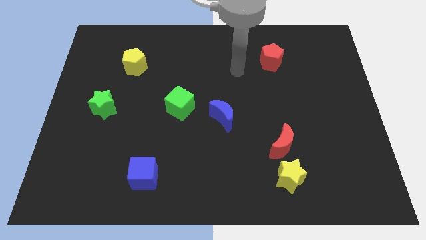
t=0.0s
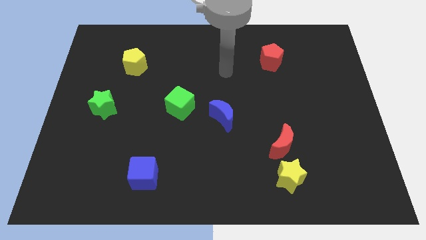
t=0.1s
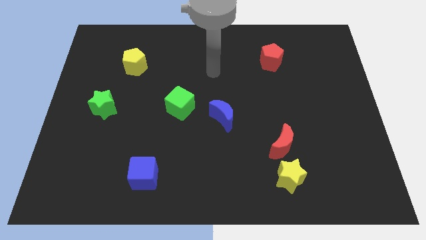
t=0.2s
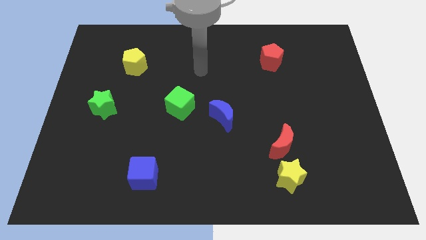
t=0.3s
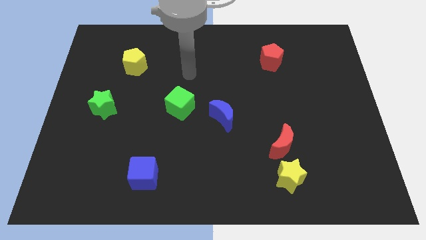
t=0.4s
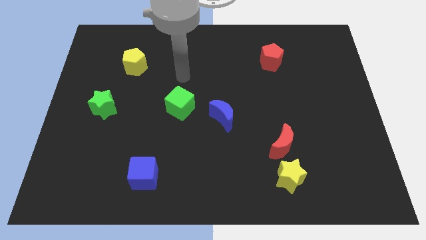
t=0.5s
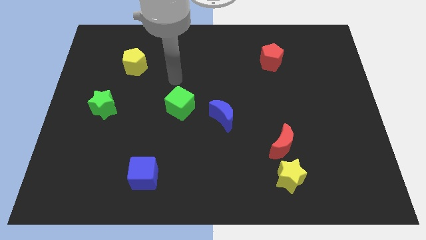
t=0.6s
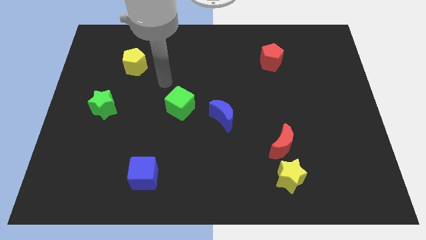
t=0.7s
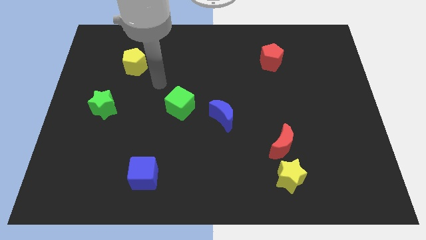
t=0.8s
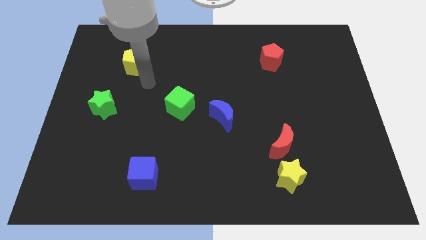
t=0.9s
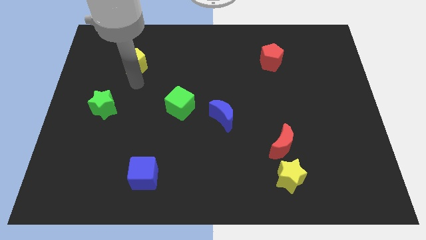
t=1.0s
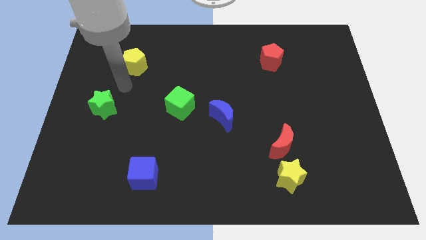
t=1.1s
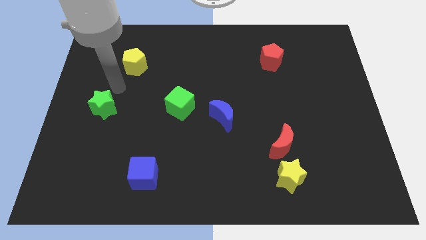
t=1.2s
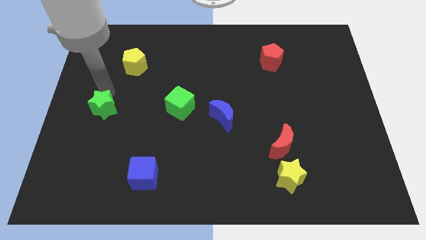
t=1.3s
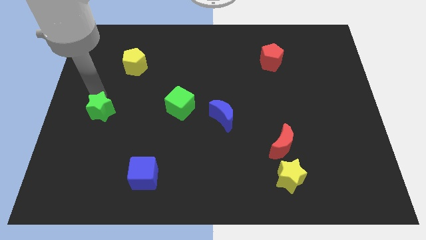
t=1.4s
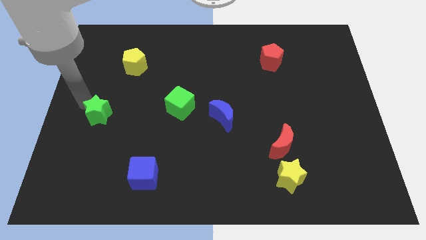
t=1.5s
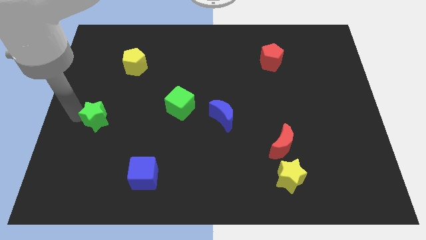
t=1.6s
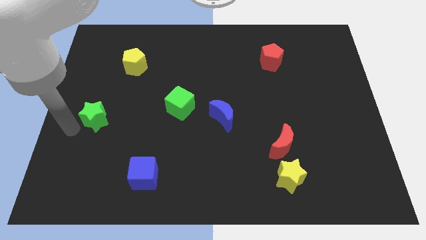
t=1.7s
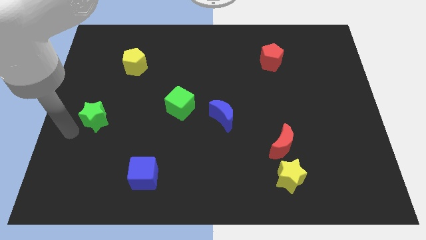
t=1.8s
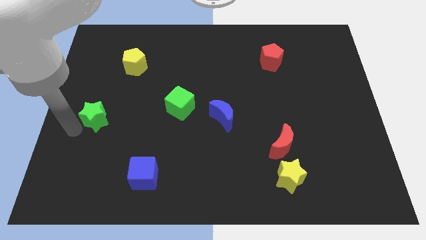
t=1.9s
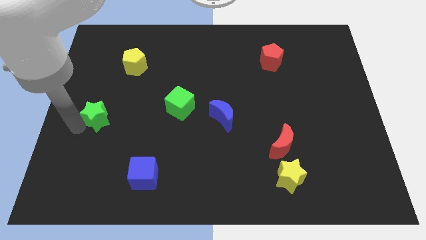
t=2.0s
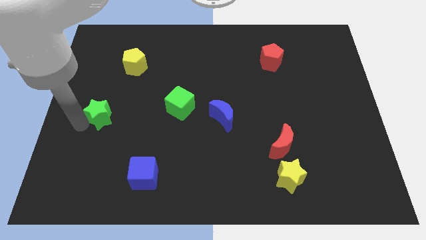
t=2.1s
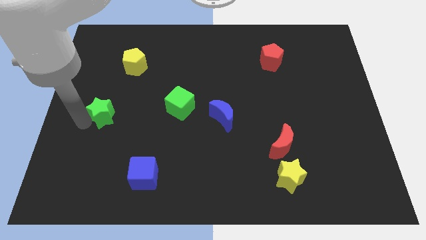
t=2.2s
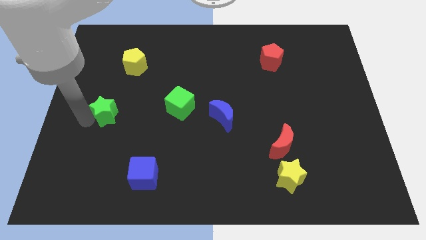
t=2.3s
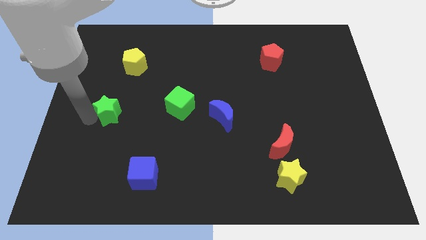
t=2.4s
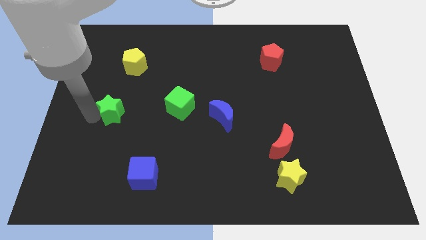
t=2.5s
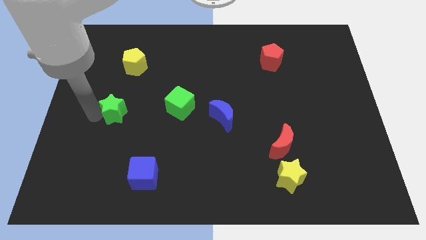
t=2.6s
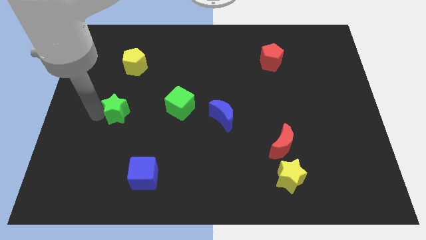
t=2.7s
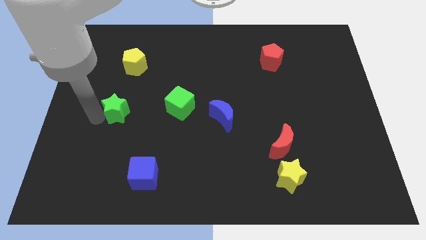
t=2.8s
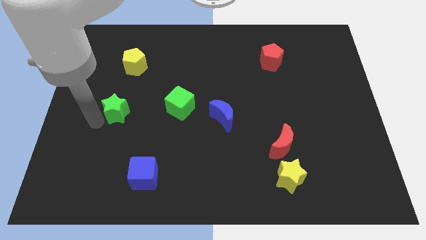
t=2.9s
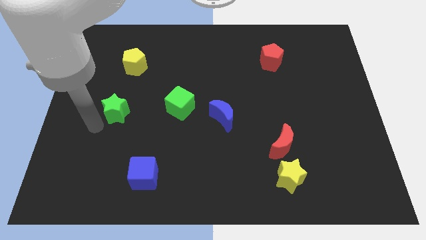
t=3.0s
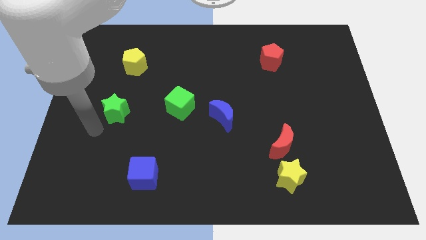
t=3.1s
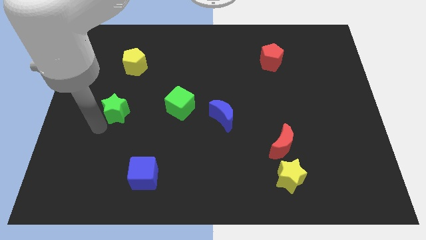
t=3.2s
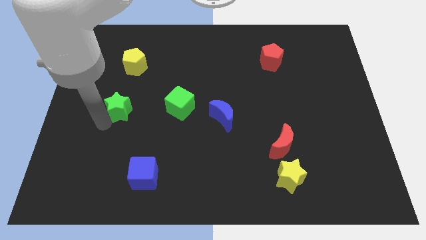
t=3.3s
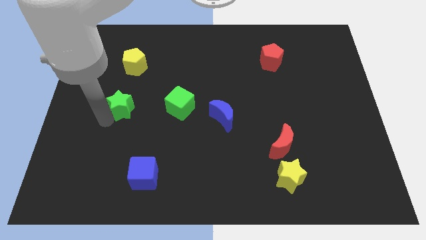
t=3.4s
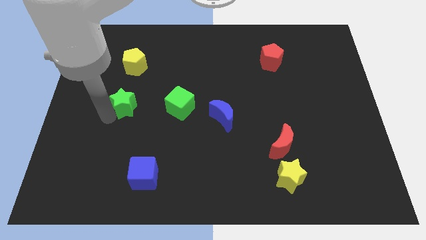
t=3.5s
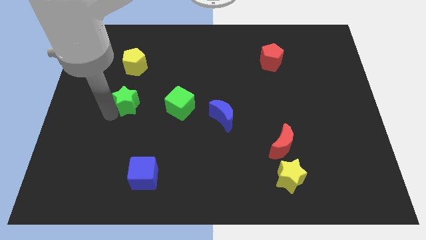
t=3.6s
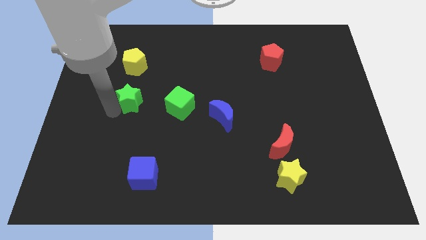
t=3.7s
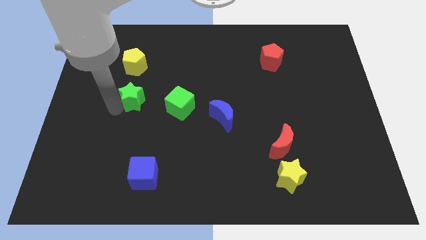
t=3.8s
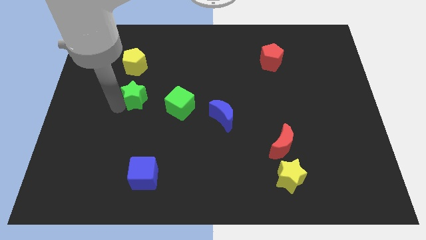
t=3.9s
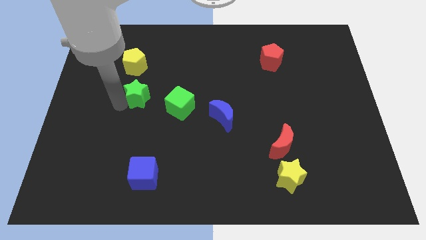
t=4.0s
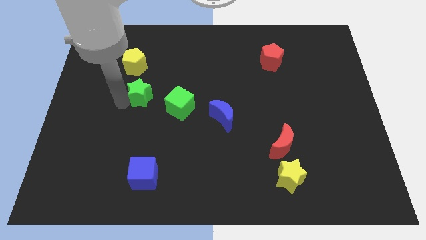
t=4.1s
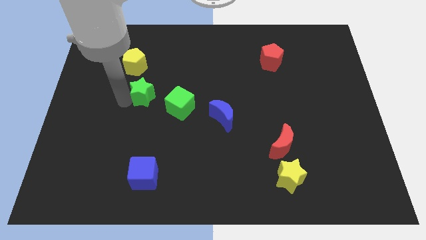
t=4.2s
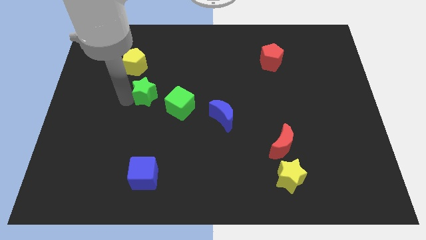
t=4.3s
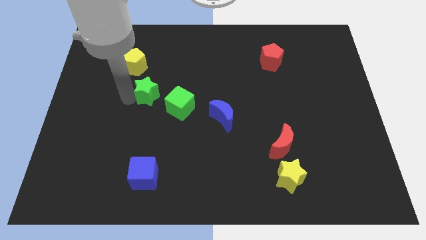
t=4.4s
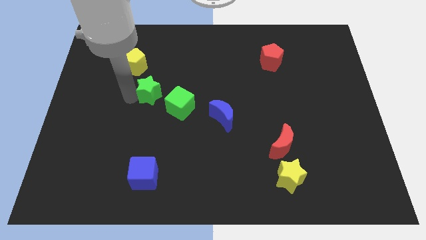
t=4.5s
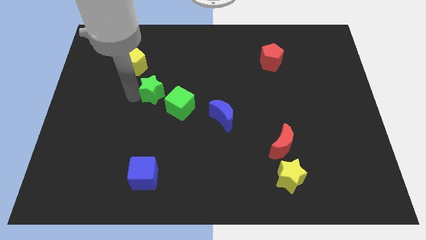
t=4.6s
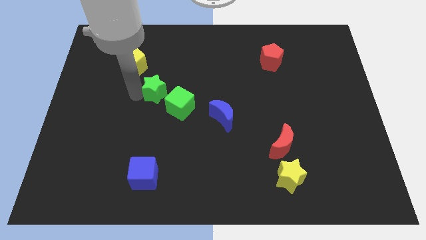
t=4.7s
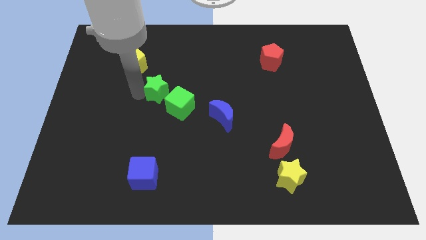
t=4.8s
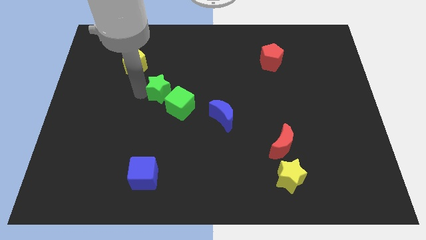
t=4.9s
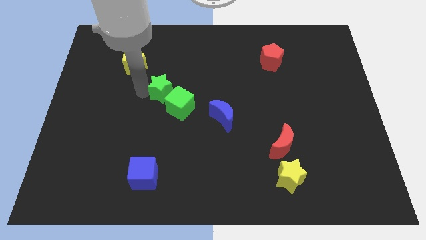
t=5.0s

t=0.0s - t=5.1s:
slide the green star to the middle

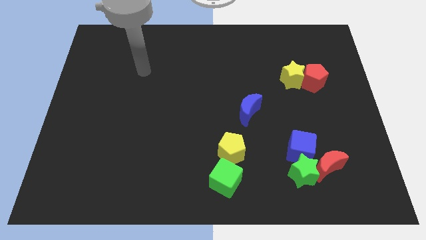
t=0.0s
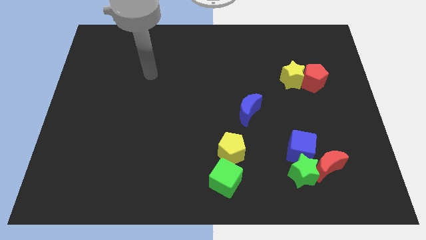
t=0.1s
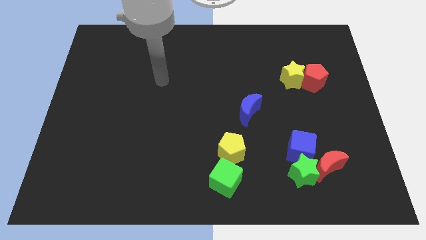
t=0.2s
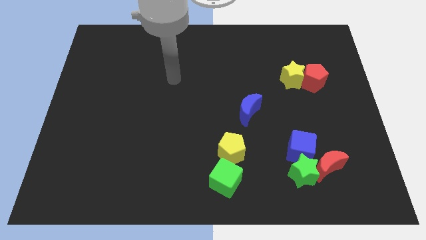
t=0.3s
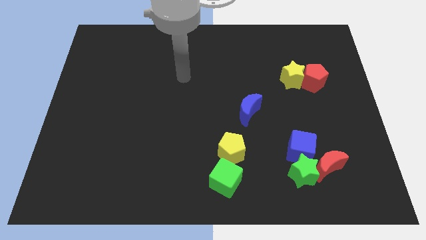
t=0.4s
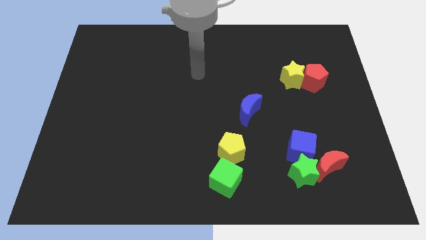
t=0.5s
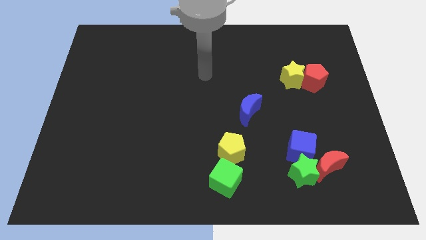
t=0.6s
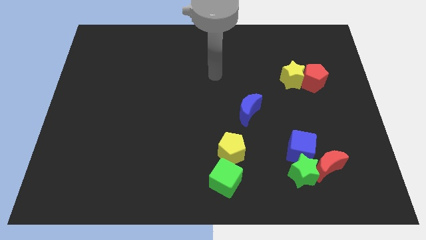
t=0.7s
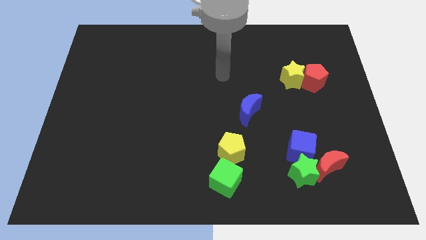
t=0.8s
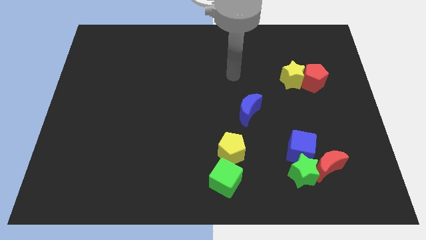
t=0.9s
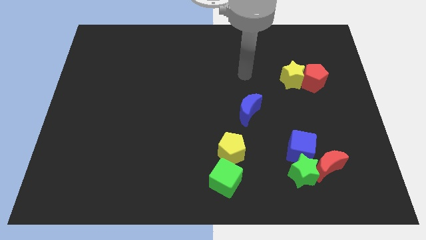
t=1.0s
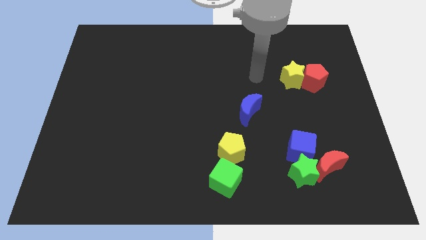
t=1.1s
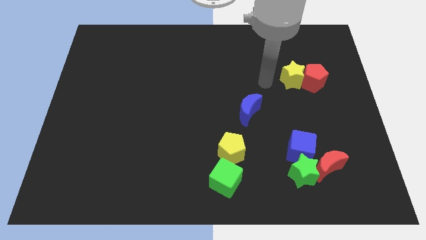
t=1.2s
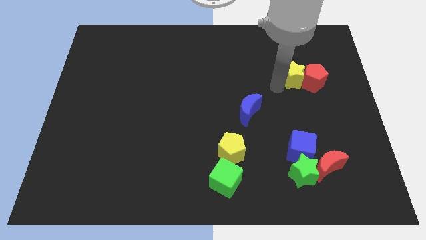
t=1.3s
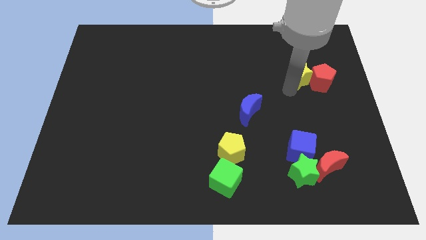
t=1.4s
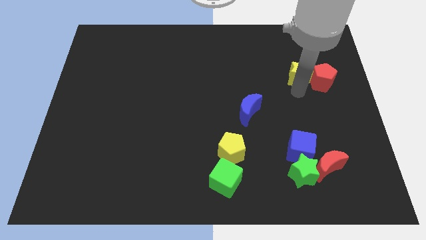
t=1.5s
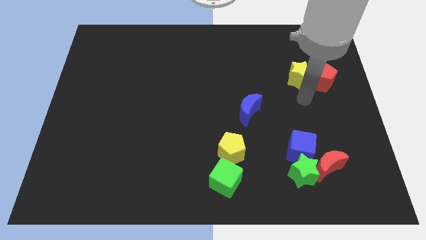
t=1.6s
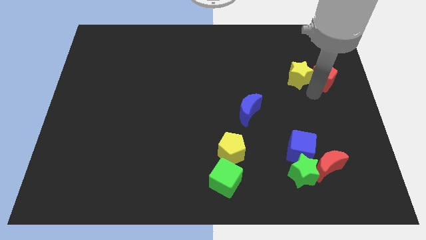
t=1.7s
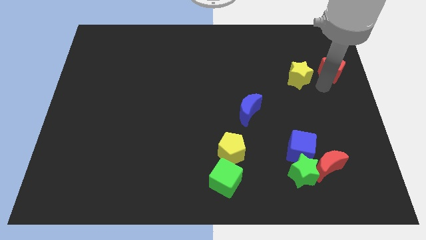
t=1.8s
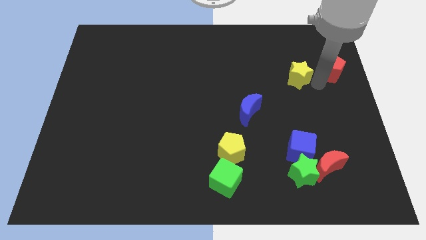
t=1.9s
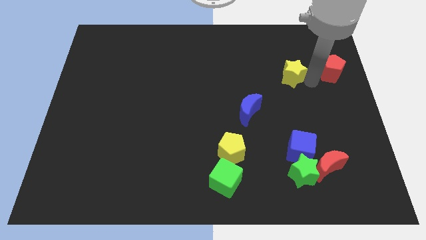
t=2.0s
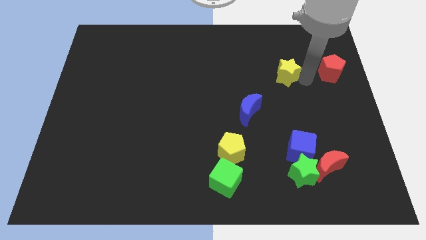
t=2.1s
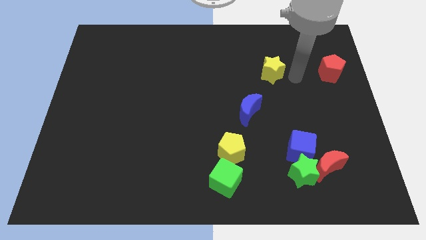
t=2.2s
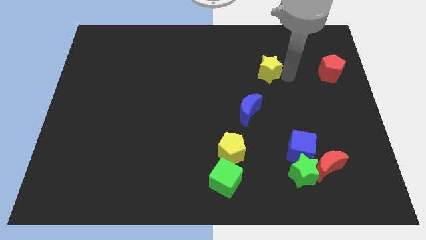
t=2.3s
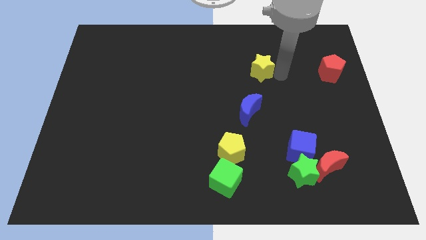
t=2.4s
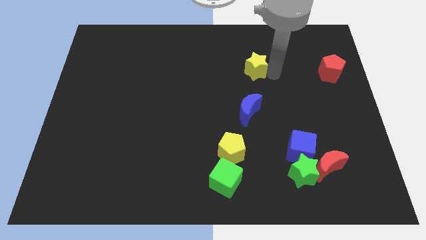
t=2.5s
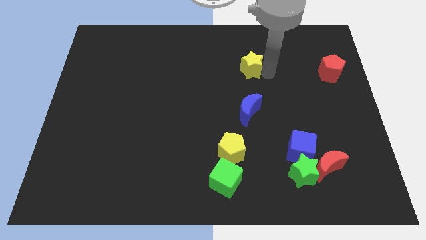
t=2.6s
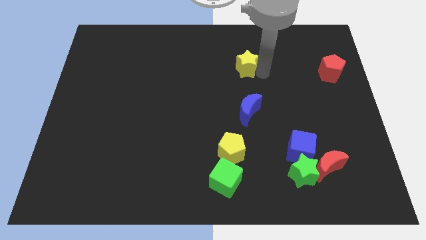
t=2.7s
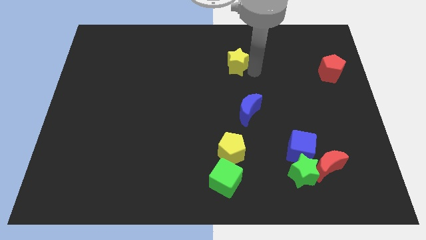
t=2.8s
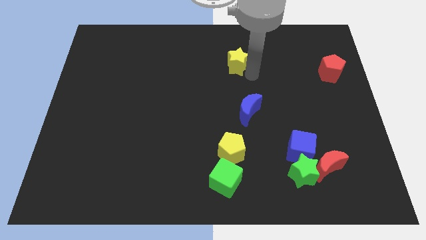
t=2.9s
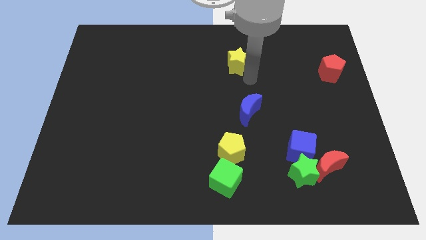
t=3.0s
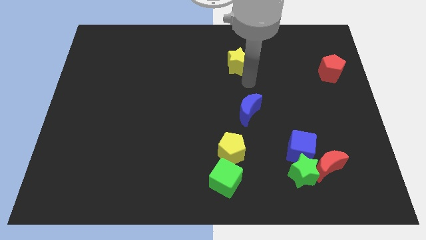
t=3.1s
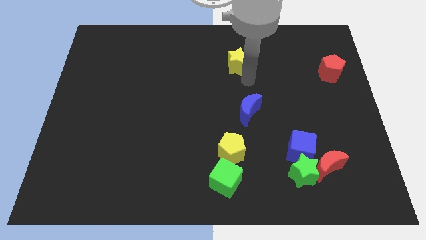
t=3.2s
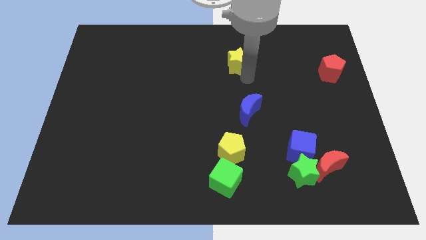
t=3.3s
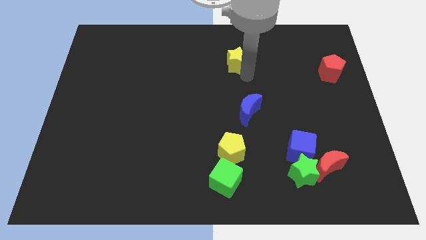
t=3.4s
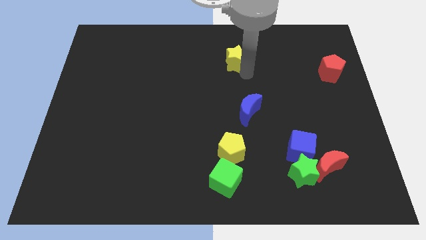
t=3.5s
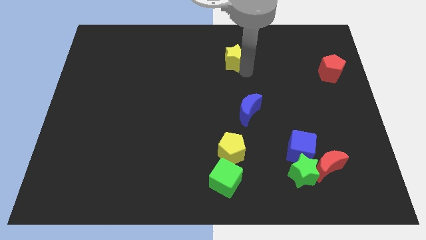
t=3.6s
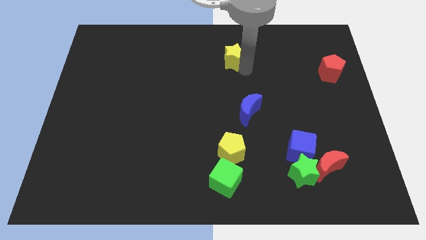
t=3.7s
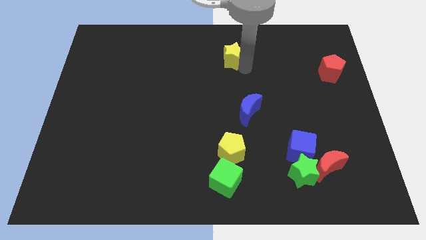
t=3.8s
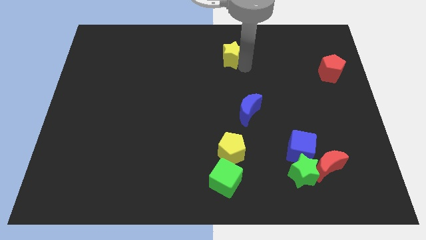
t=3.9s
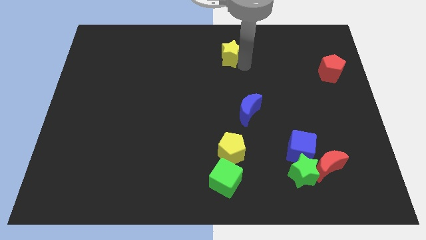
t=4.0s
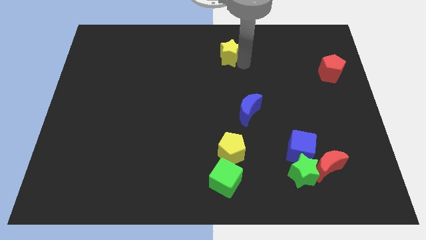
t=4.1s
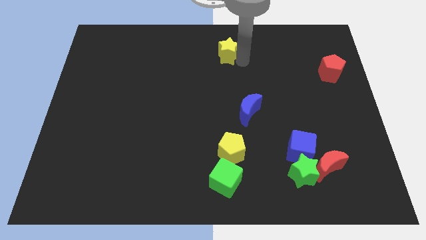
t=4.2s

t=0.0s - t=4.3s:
push the yellow star to the top side
